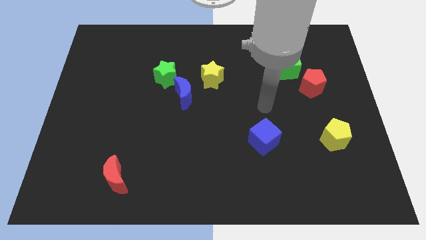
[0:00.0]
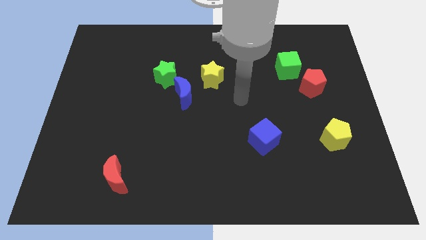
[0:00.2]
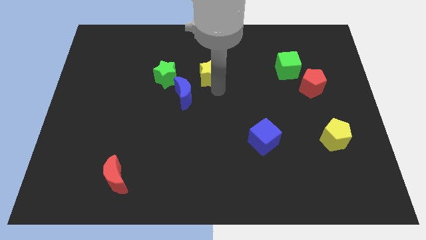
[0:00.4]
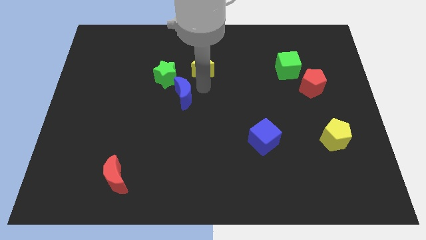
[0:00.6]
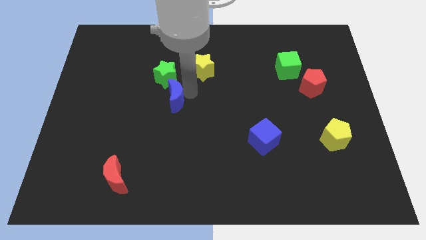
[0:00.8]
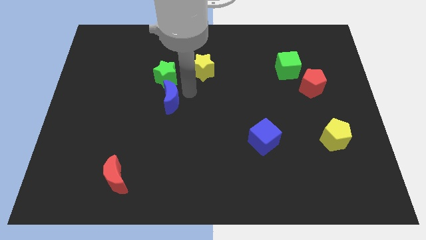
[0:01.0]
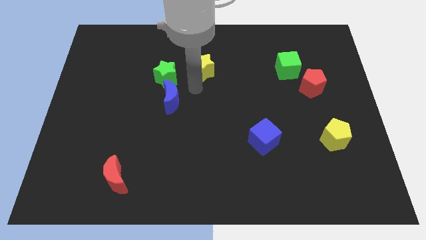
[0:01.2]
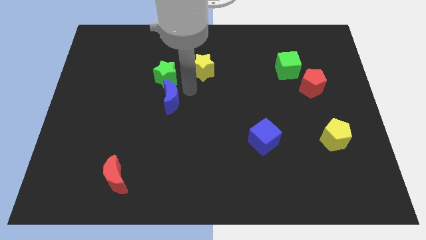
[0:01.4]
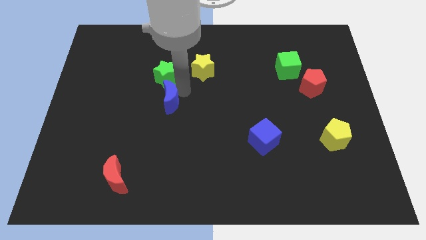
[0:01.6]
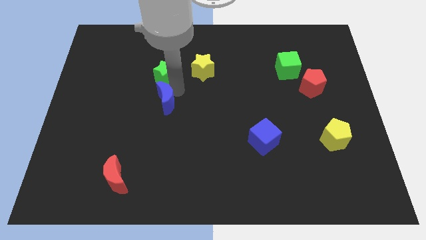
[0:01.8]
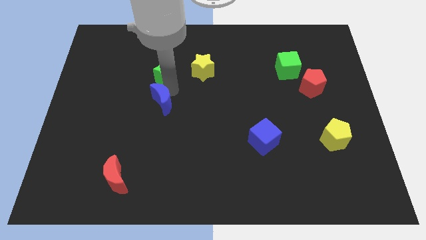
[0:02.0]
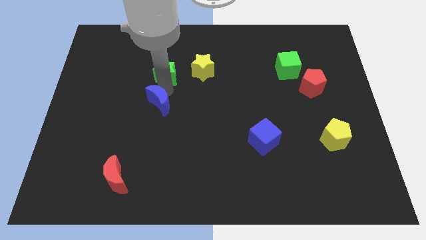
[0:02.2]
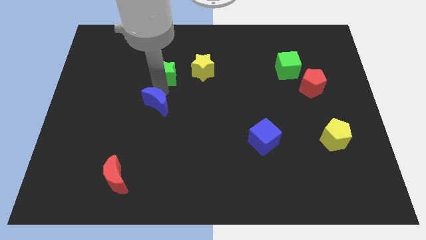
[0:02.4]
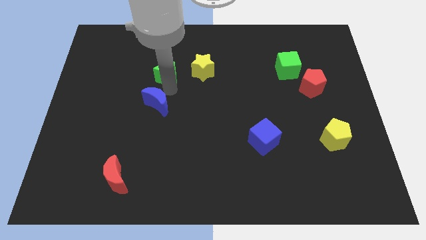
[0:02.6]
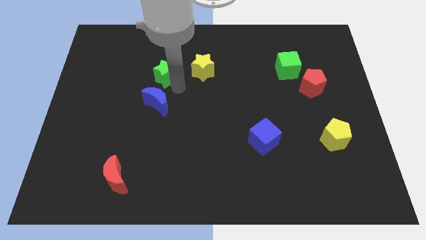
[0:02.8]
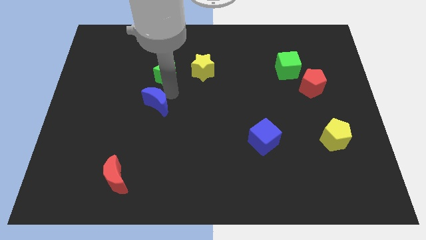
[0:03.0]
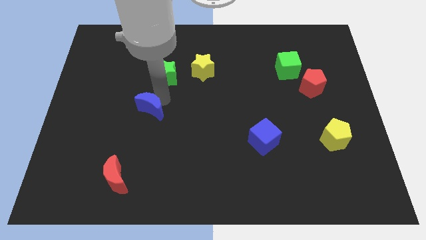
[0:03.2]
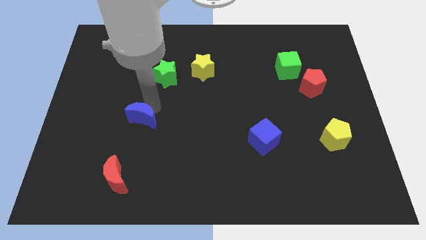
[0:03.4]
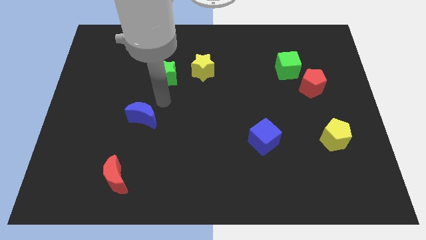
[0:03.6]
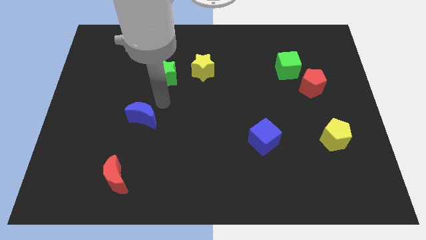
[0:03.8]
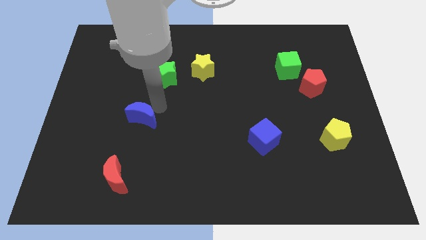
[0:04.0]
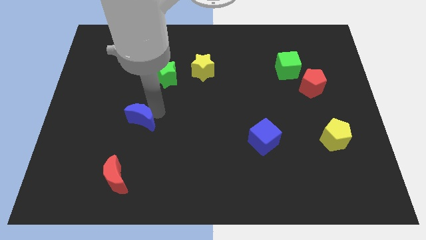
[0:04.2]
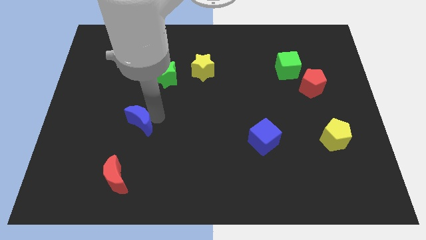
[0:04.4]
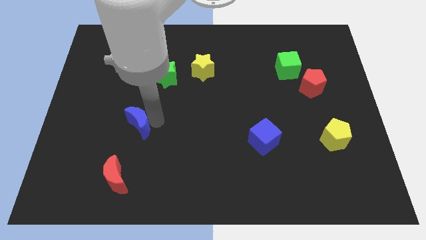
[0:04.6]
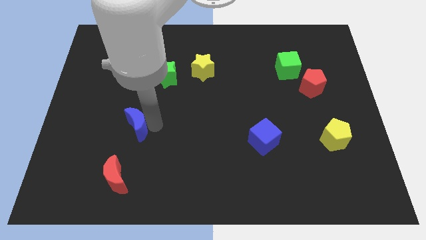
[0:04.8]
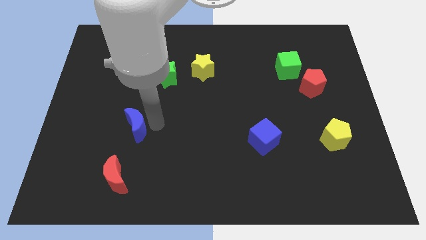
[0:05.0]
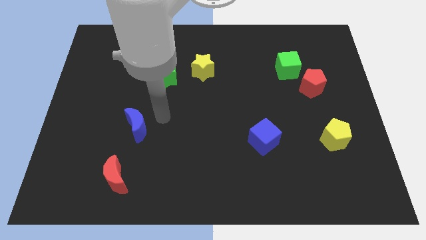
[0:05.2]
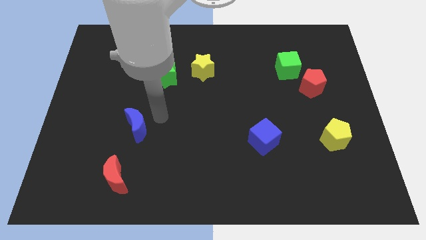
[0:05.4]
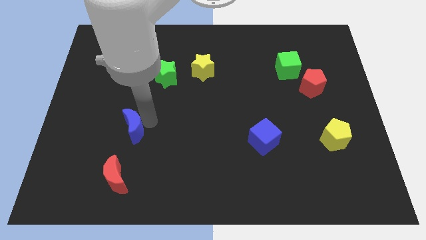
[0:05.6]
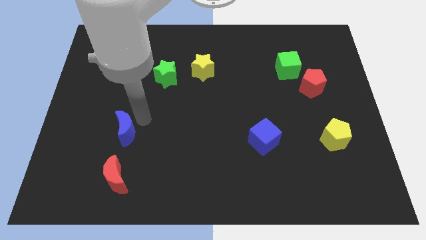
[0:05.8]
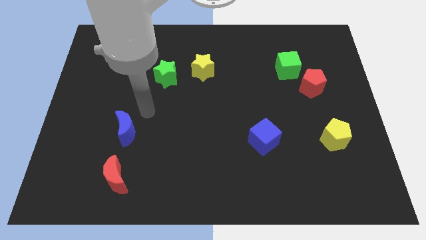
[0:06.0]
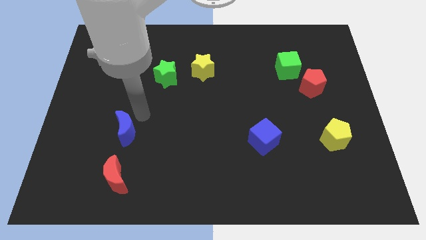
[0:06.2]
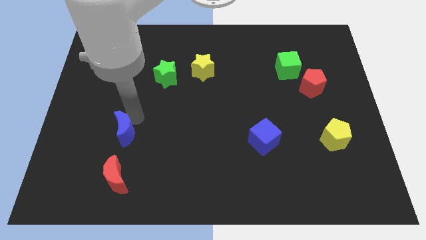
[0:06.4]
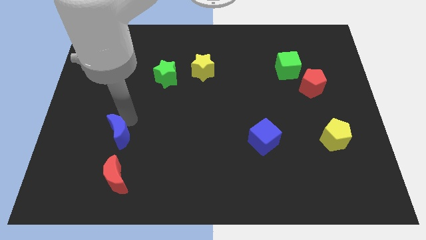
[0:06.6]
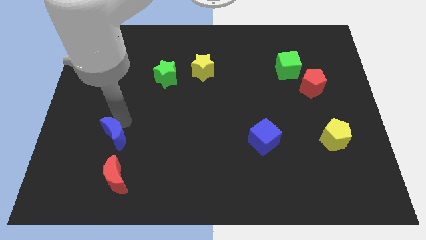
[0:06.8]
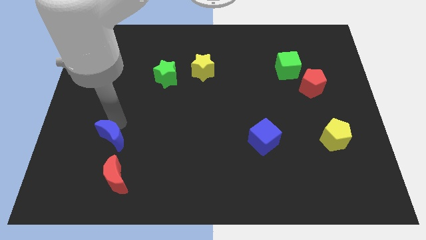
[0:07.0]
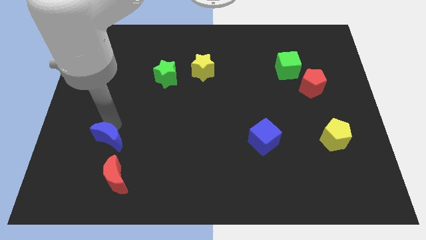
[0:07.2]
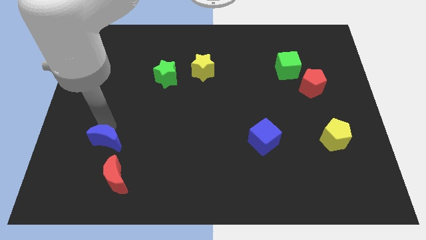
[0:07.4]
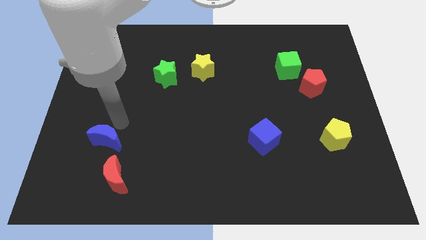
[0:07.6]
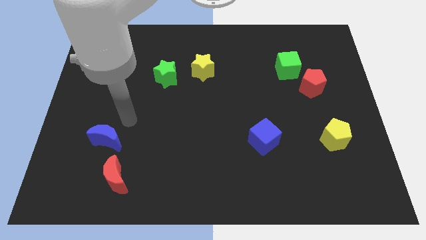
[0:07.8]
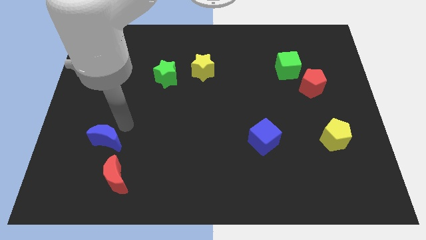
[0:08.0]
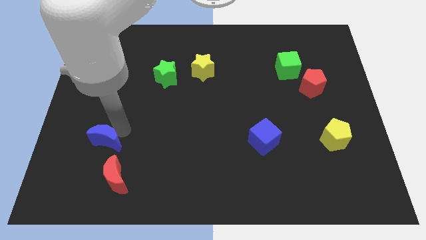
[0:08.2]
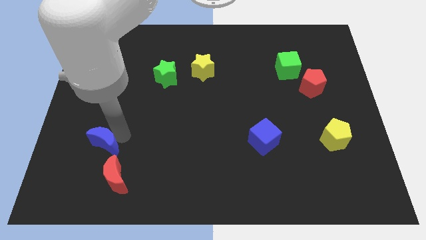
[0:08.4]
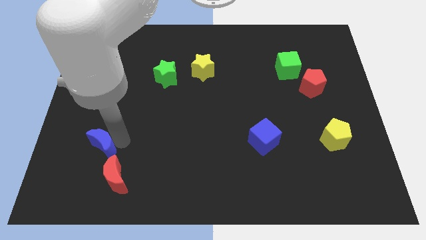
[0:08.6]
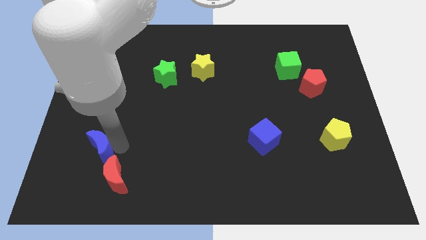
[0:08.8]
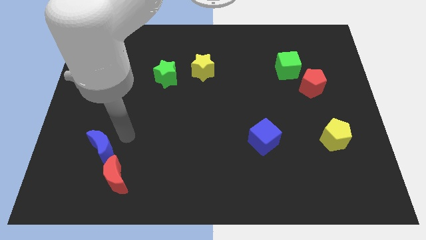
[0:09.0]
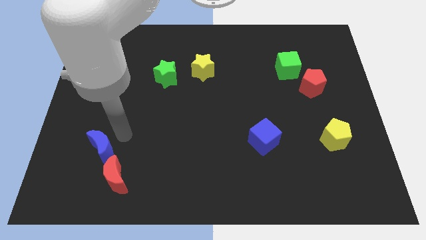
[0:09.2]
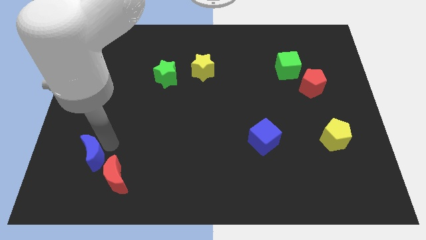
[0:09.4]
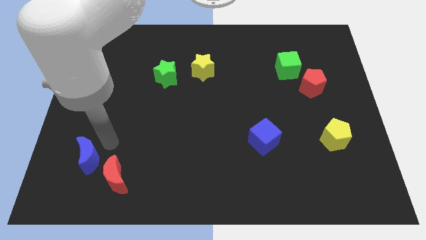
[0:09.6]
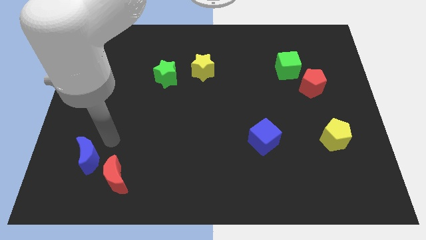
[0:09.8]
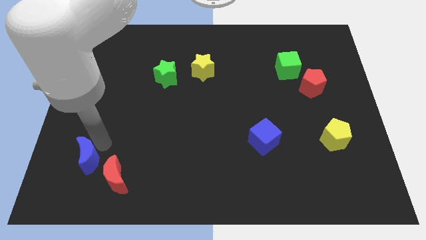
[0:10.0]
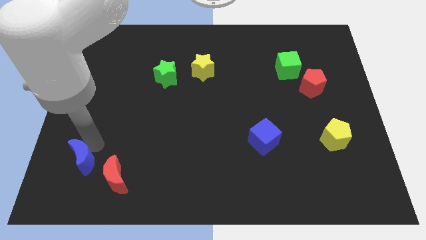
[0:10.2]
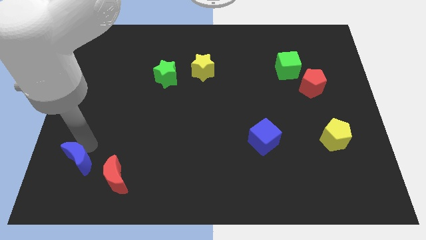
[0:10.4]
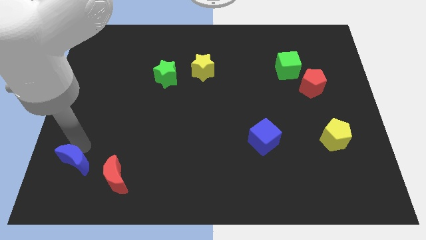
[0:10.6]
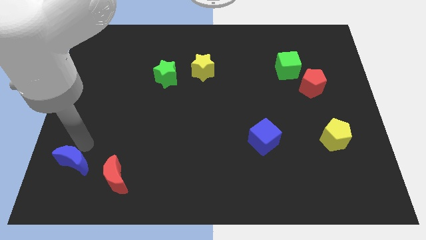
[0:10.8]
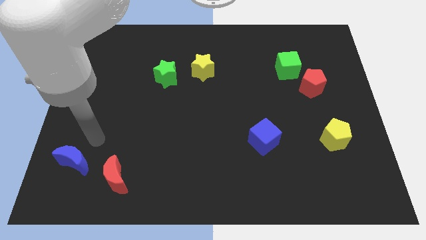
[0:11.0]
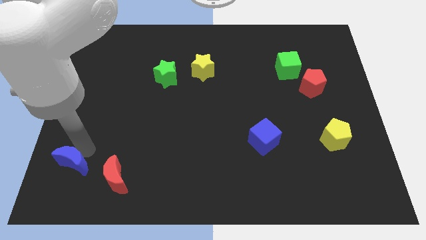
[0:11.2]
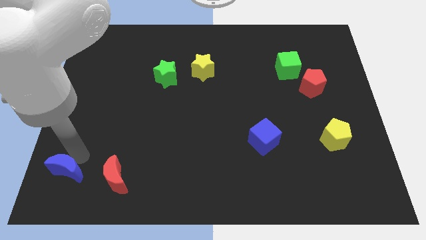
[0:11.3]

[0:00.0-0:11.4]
move the blue moon to the bottom left corner

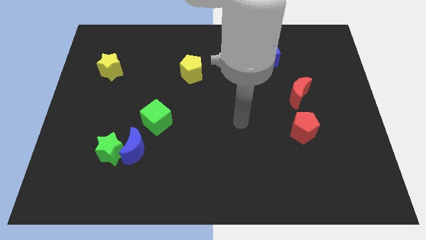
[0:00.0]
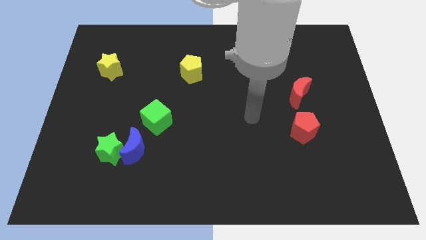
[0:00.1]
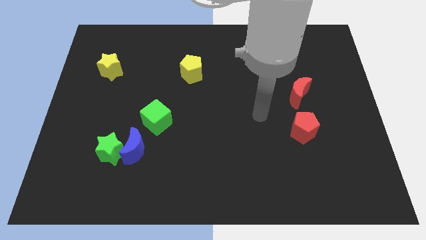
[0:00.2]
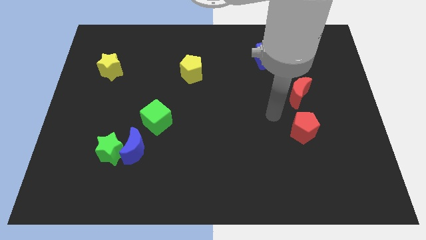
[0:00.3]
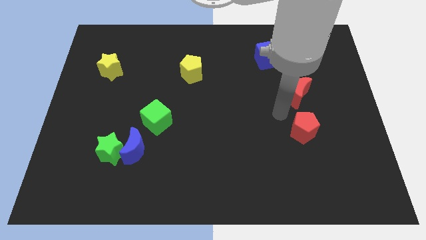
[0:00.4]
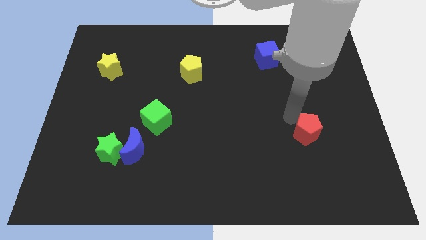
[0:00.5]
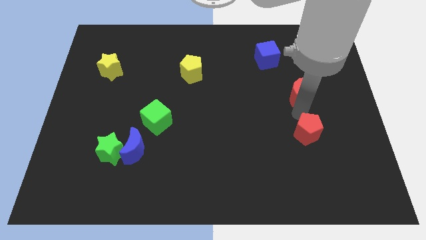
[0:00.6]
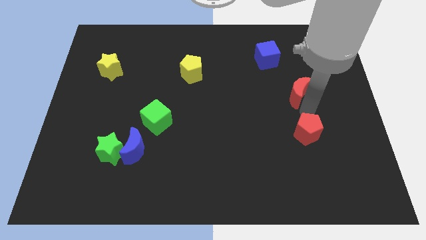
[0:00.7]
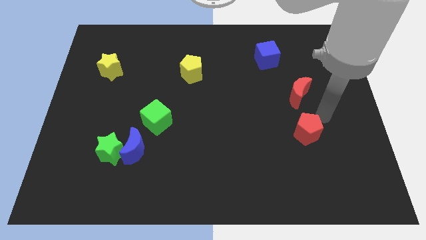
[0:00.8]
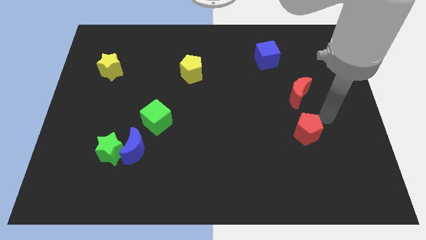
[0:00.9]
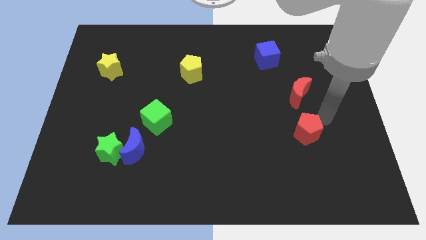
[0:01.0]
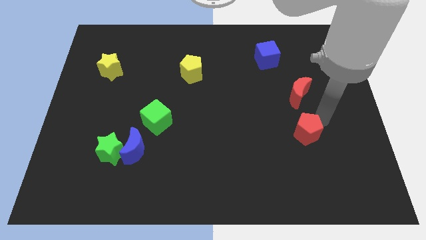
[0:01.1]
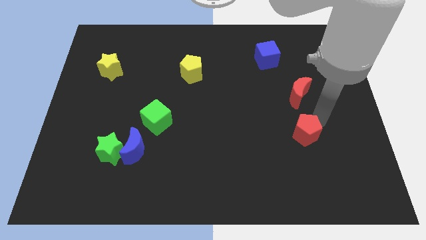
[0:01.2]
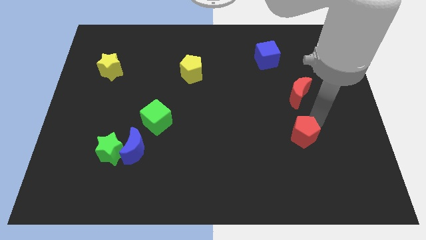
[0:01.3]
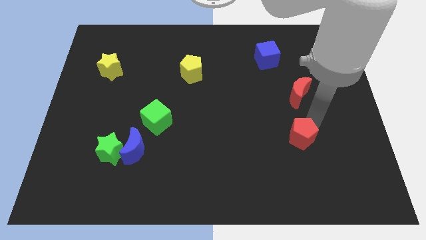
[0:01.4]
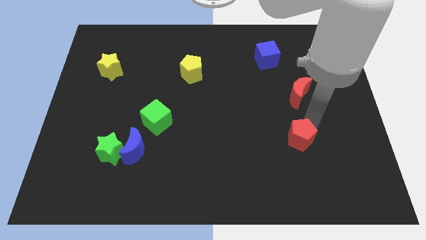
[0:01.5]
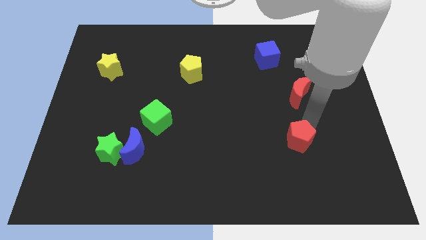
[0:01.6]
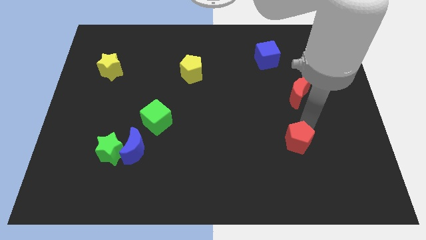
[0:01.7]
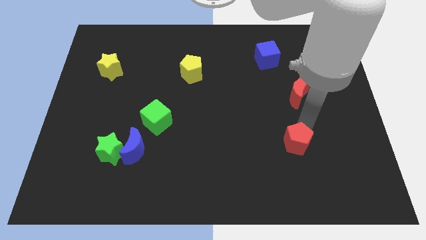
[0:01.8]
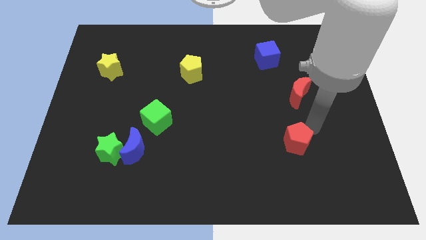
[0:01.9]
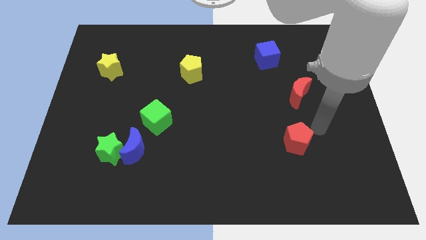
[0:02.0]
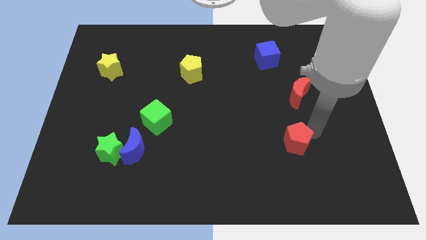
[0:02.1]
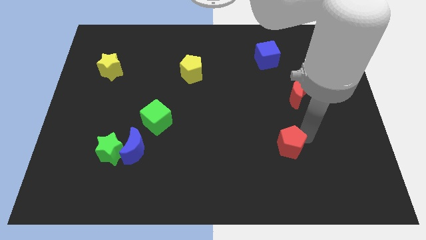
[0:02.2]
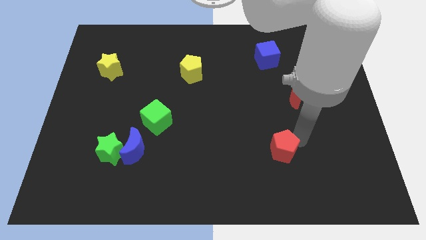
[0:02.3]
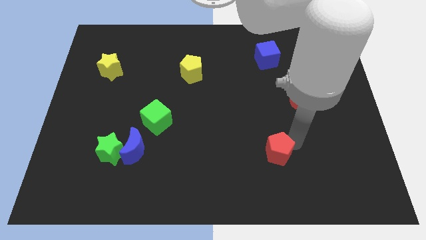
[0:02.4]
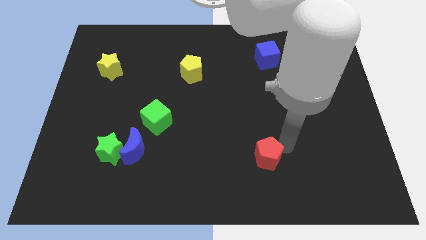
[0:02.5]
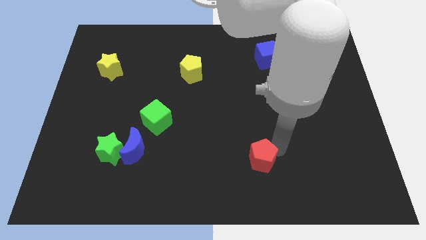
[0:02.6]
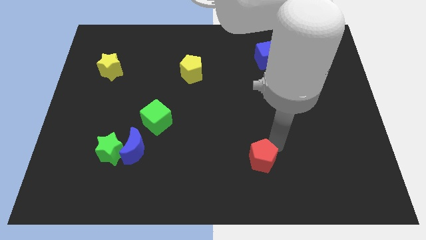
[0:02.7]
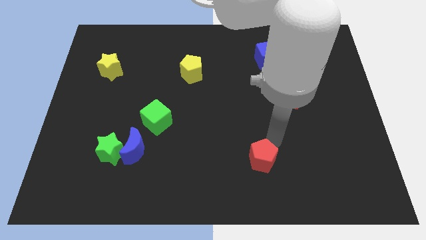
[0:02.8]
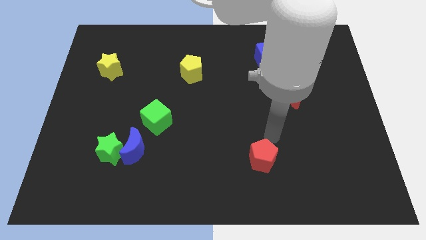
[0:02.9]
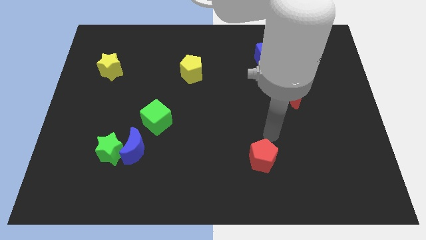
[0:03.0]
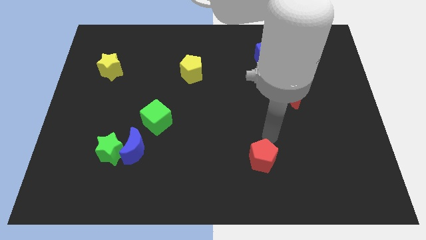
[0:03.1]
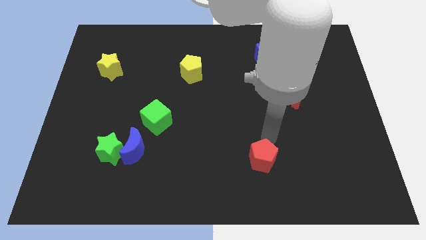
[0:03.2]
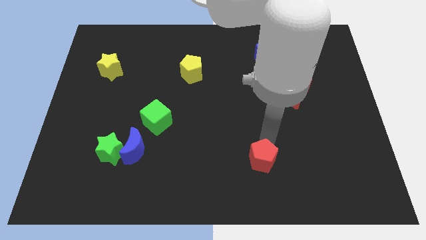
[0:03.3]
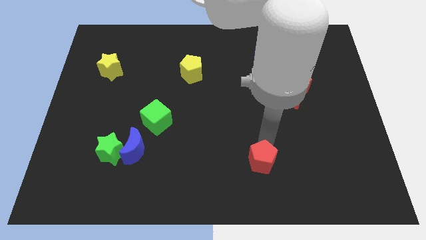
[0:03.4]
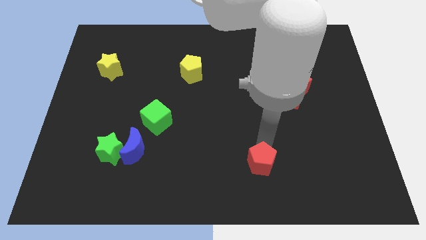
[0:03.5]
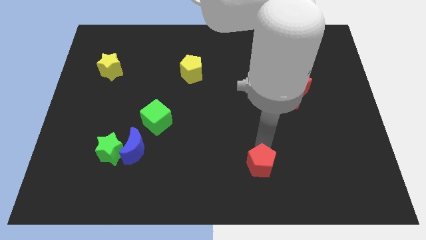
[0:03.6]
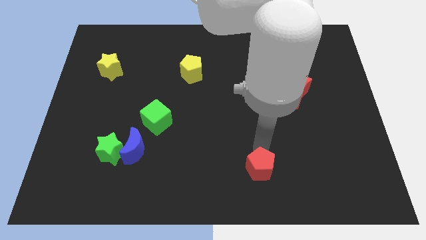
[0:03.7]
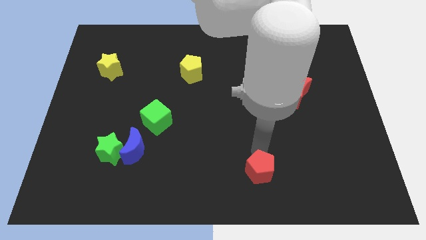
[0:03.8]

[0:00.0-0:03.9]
move the red pentagon to the bottom side
